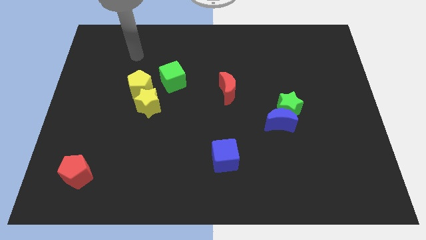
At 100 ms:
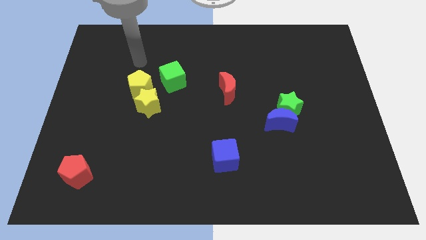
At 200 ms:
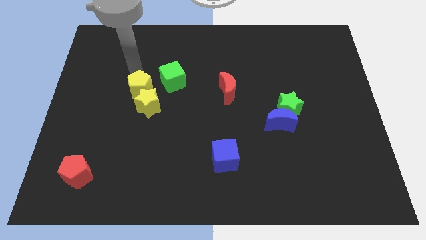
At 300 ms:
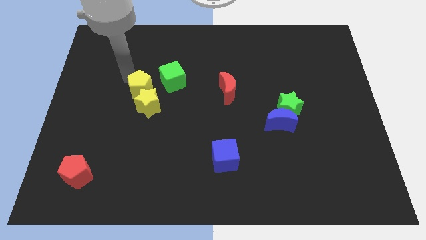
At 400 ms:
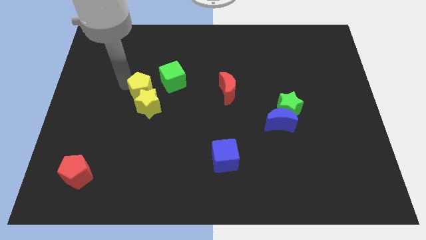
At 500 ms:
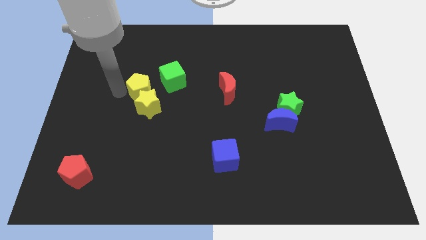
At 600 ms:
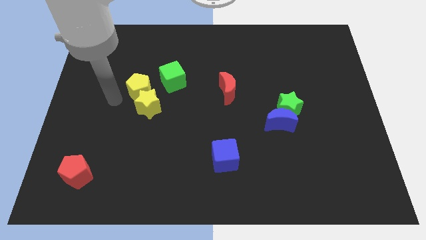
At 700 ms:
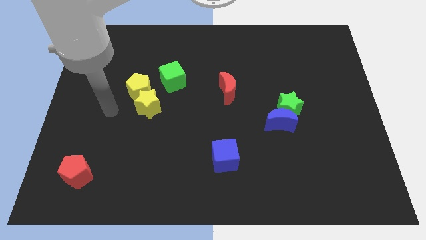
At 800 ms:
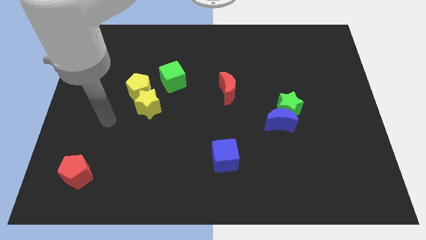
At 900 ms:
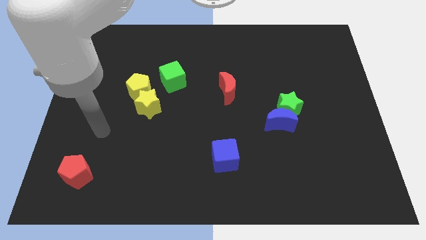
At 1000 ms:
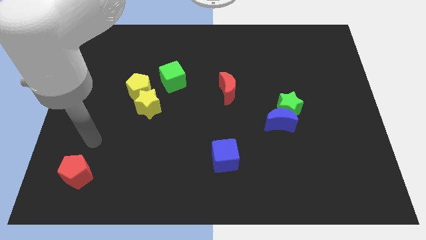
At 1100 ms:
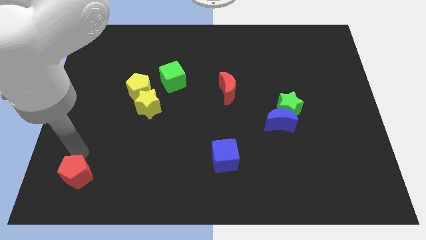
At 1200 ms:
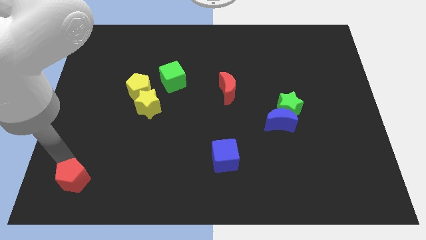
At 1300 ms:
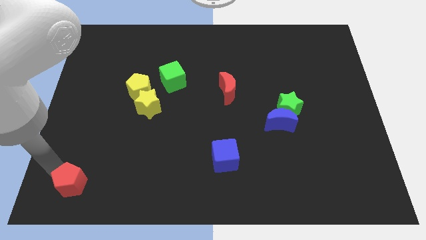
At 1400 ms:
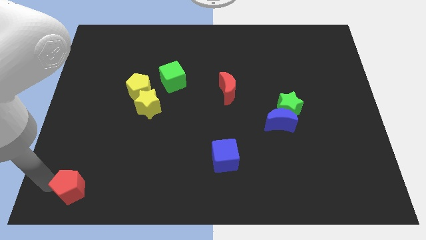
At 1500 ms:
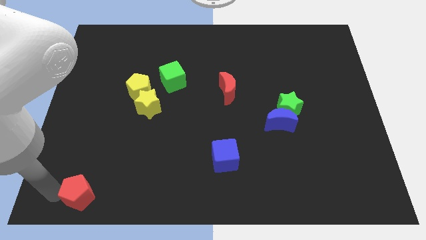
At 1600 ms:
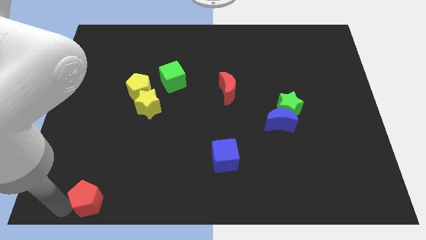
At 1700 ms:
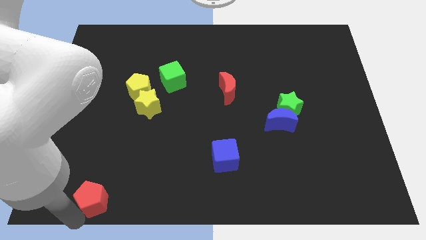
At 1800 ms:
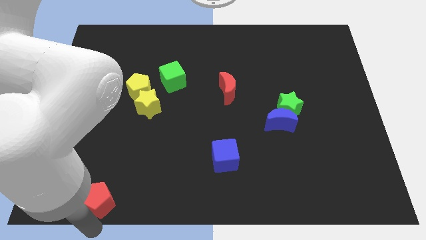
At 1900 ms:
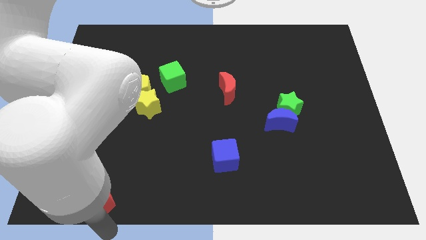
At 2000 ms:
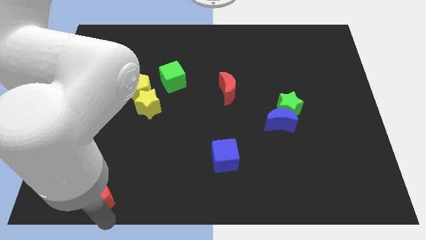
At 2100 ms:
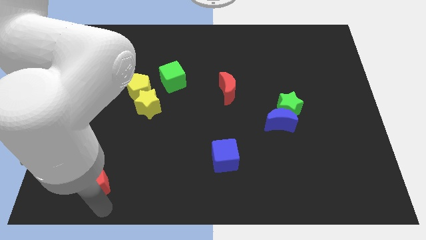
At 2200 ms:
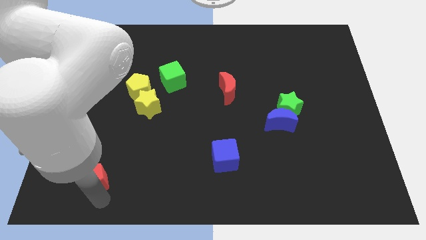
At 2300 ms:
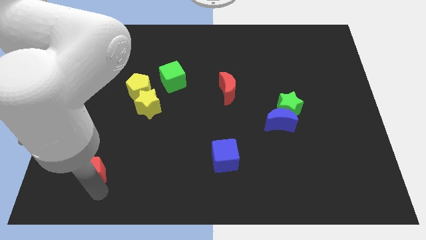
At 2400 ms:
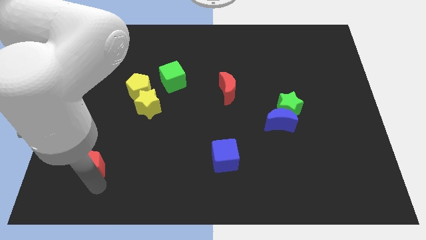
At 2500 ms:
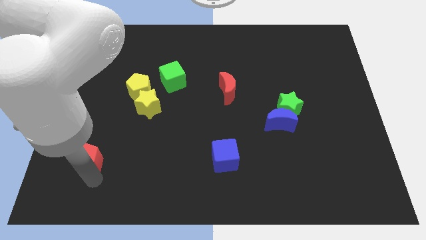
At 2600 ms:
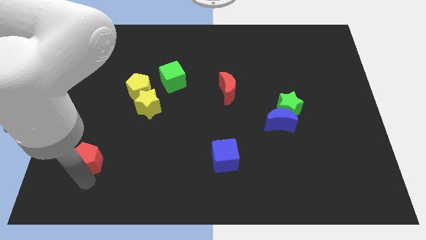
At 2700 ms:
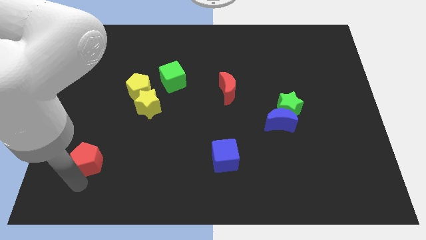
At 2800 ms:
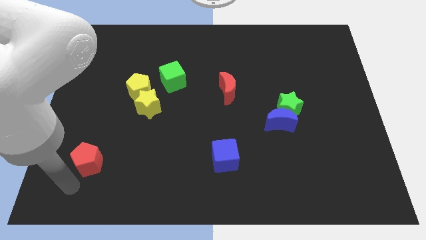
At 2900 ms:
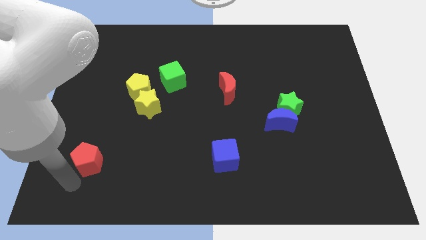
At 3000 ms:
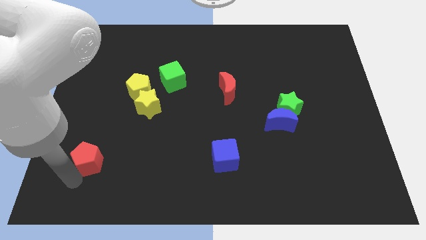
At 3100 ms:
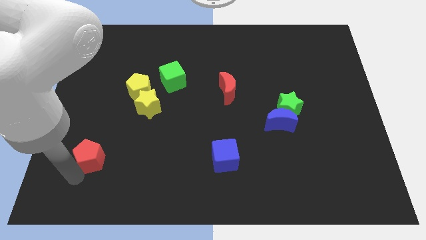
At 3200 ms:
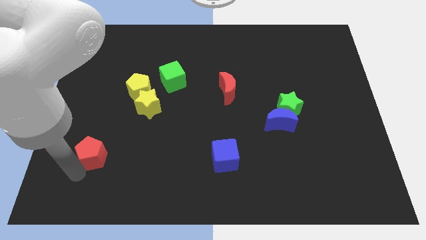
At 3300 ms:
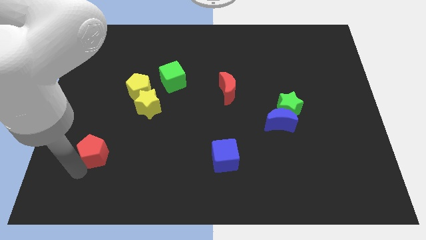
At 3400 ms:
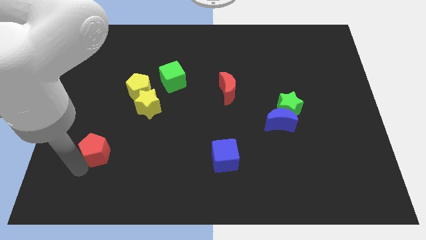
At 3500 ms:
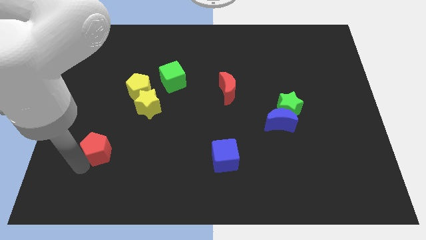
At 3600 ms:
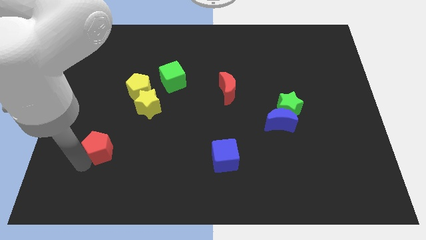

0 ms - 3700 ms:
slightly push the red pentagon up and to the right diagonally

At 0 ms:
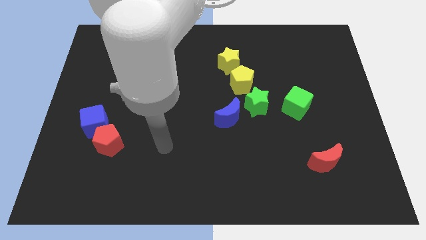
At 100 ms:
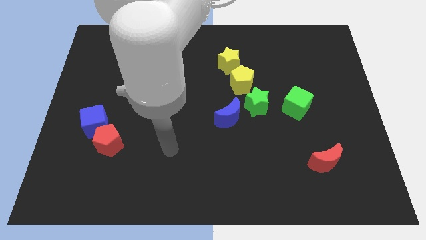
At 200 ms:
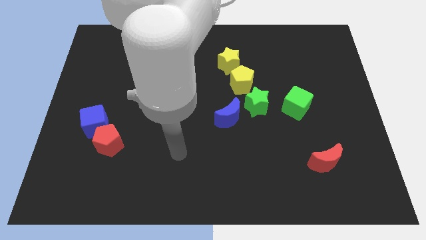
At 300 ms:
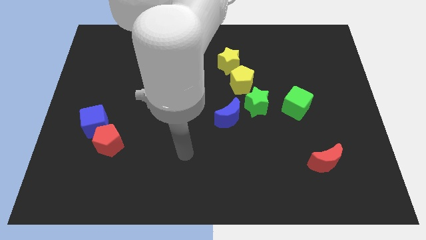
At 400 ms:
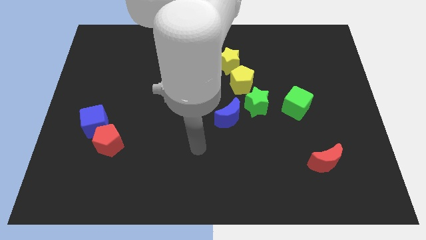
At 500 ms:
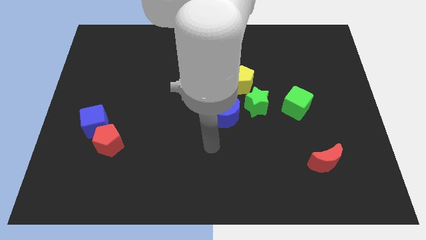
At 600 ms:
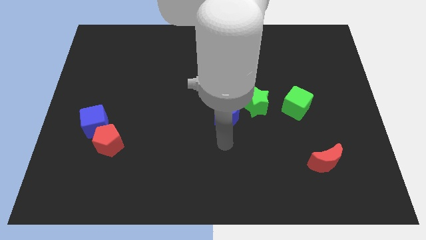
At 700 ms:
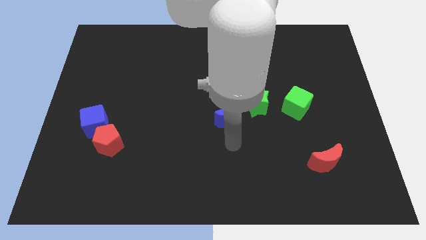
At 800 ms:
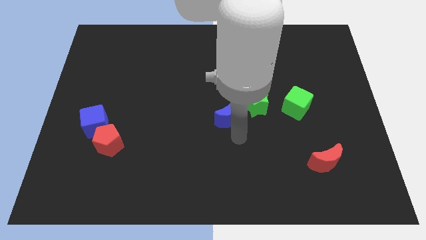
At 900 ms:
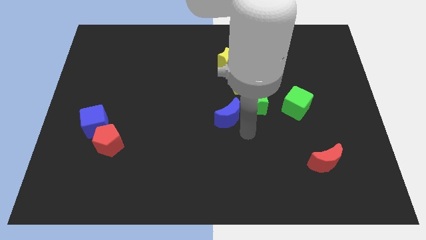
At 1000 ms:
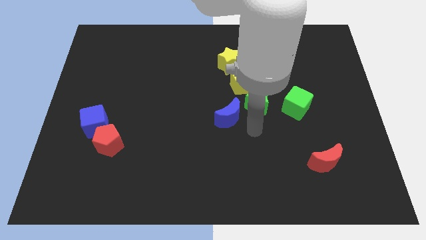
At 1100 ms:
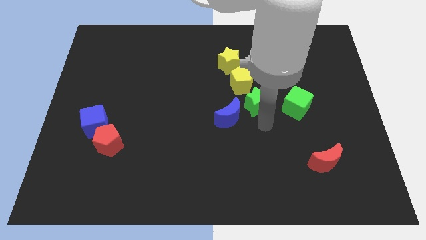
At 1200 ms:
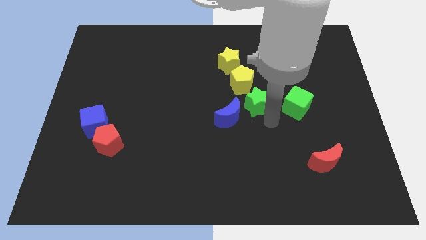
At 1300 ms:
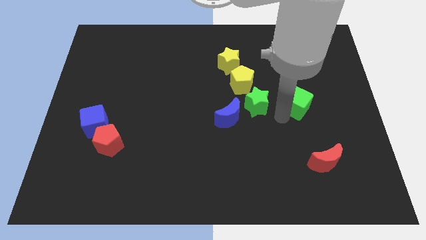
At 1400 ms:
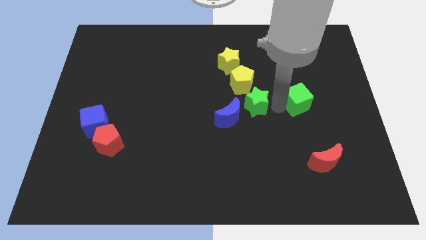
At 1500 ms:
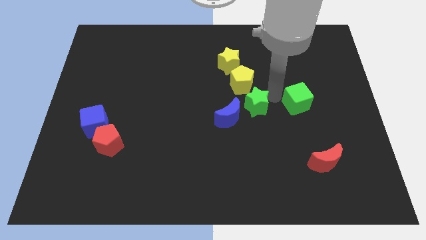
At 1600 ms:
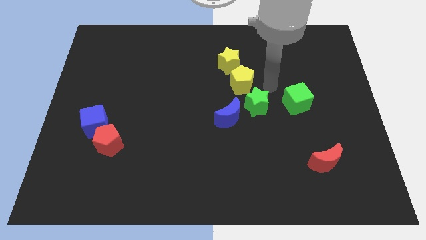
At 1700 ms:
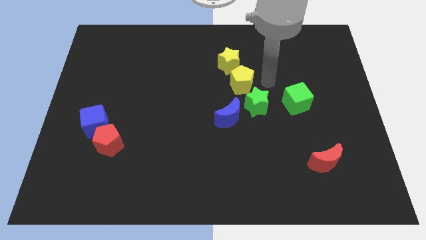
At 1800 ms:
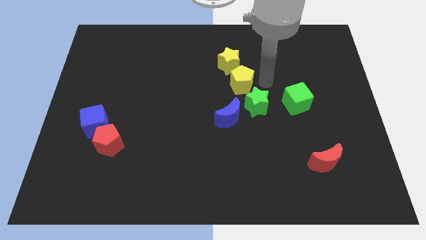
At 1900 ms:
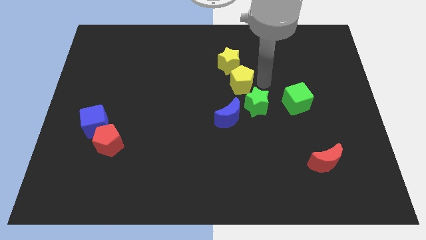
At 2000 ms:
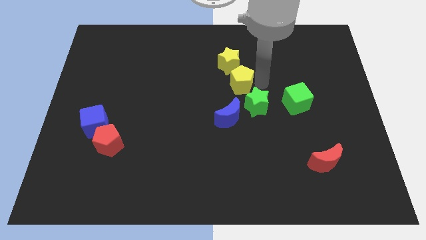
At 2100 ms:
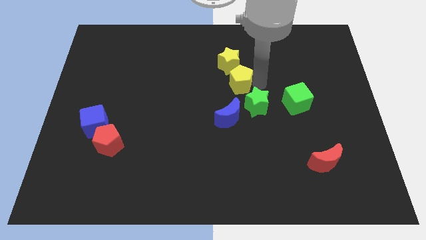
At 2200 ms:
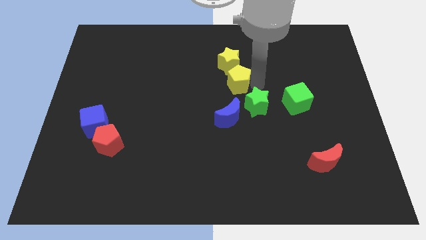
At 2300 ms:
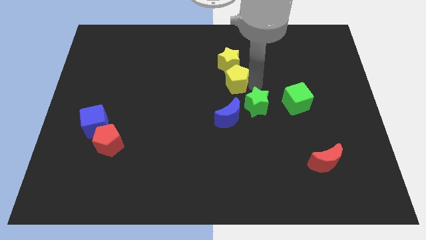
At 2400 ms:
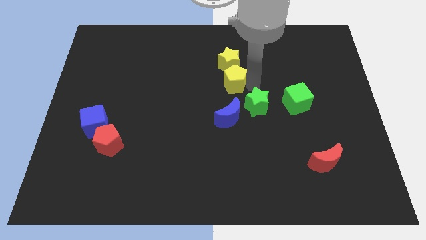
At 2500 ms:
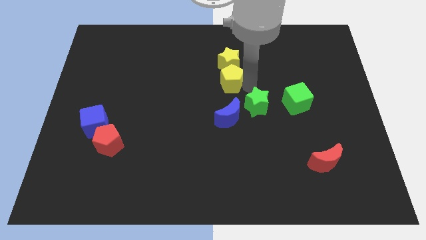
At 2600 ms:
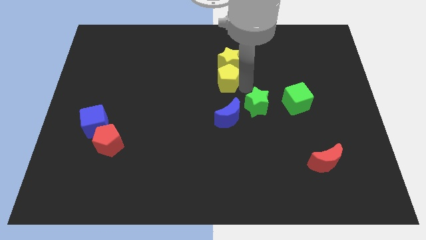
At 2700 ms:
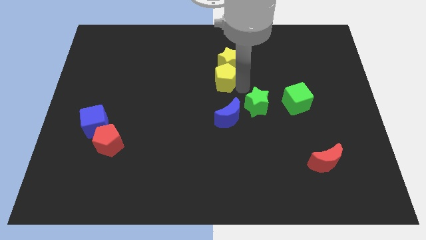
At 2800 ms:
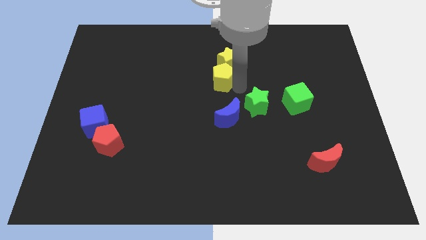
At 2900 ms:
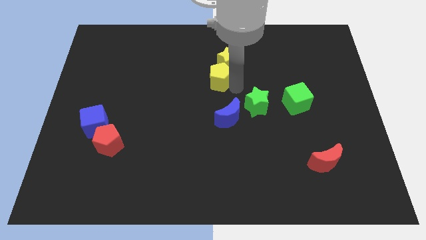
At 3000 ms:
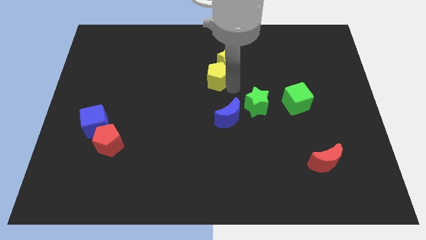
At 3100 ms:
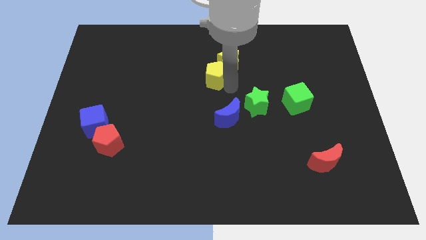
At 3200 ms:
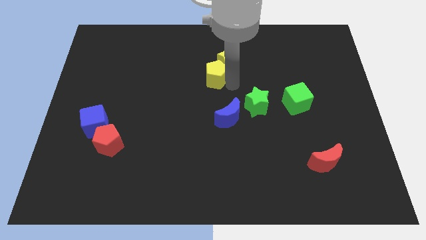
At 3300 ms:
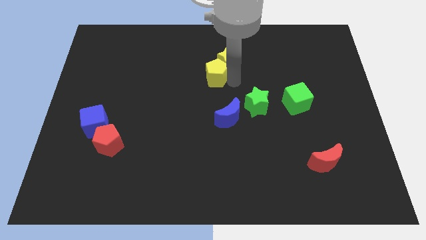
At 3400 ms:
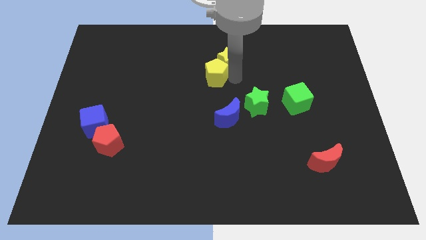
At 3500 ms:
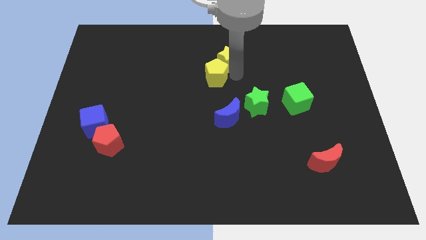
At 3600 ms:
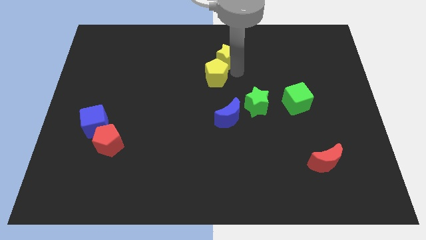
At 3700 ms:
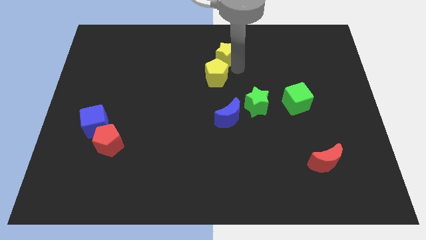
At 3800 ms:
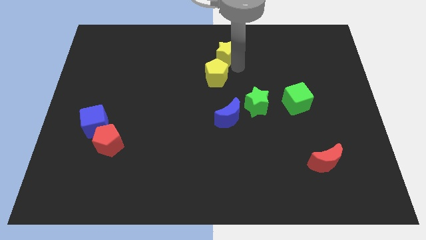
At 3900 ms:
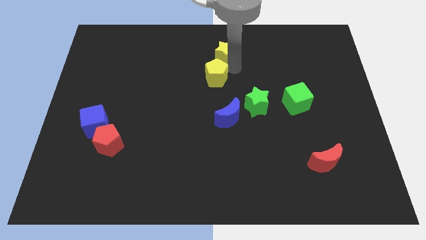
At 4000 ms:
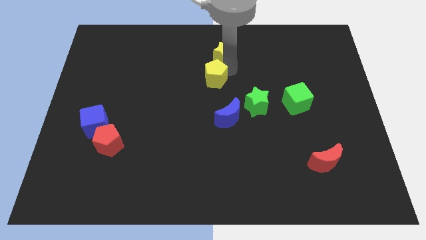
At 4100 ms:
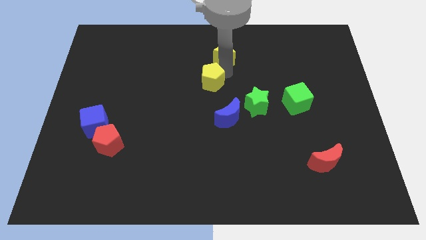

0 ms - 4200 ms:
move the yellow pentagon left slightly

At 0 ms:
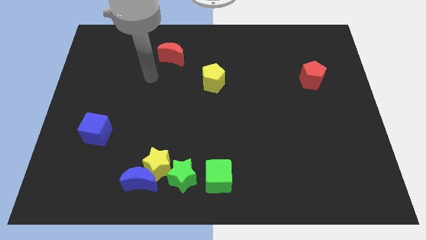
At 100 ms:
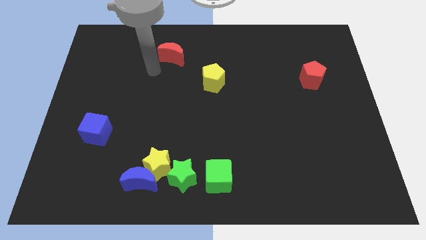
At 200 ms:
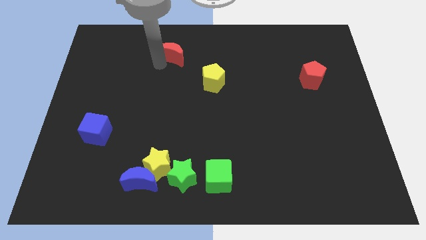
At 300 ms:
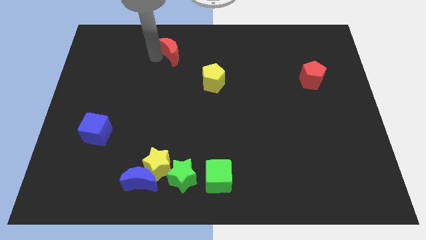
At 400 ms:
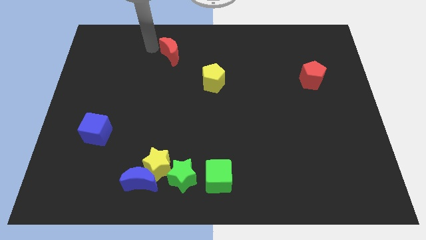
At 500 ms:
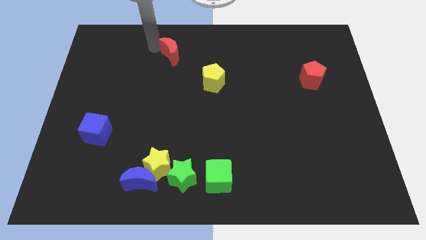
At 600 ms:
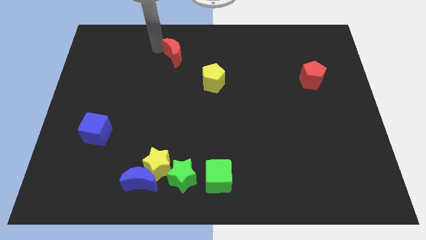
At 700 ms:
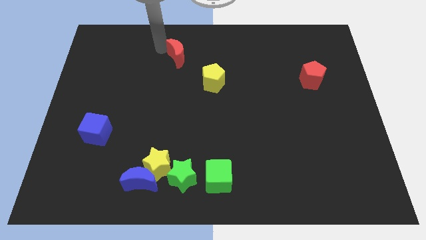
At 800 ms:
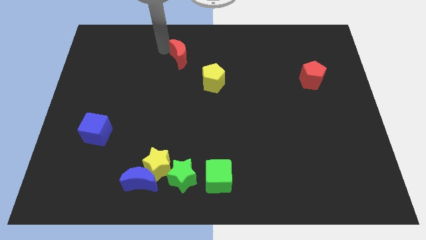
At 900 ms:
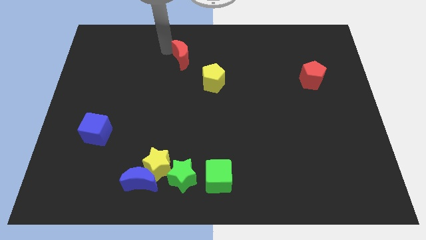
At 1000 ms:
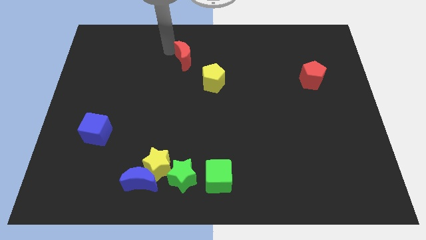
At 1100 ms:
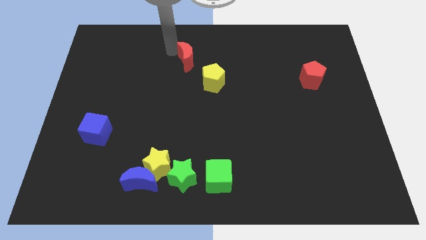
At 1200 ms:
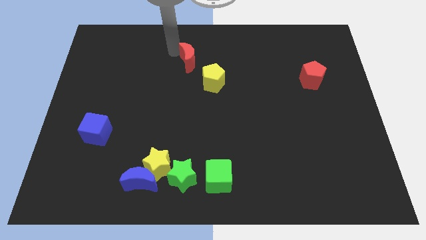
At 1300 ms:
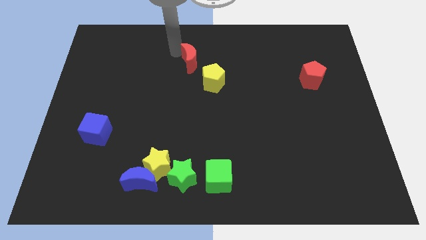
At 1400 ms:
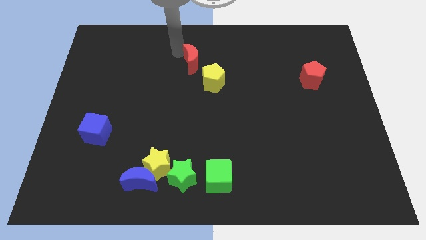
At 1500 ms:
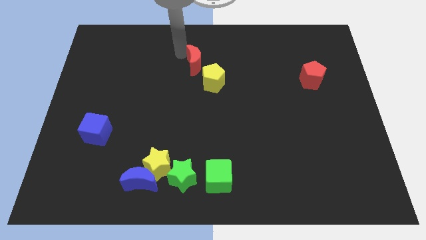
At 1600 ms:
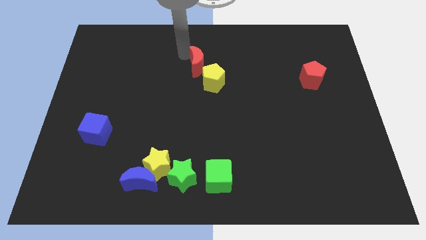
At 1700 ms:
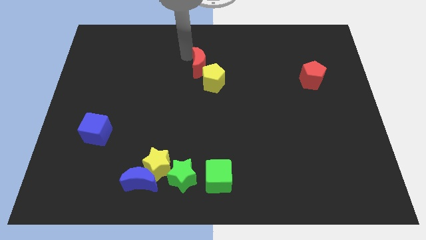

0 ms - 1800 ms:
slide the red moon downwards and to the right diagonally a little bit
